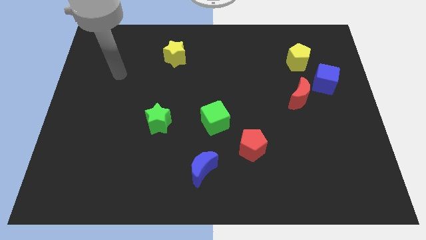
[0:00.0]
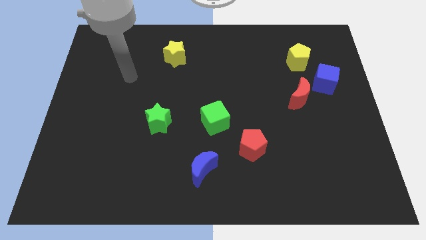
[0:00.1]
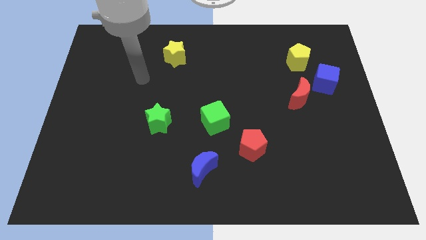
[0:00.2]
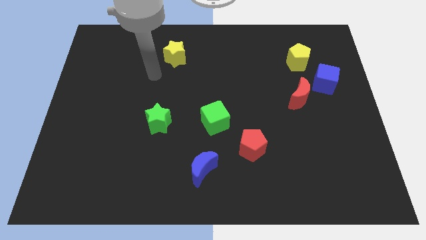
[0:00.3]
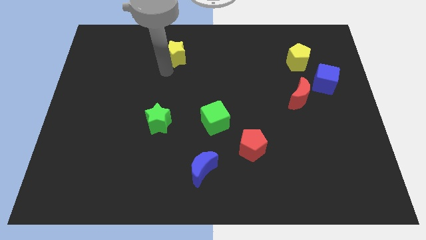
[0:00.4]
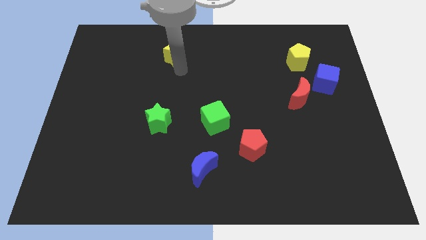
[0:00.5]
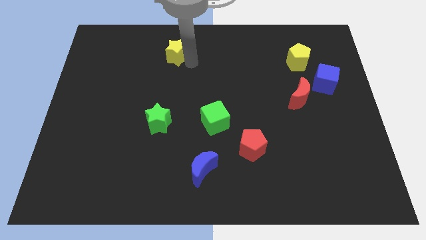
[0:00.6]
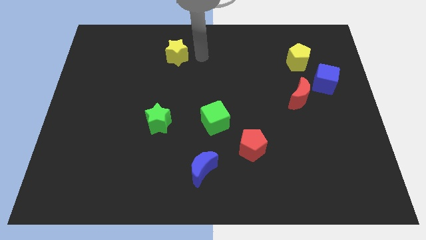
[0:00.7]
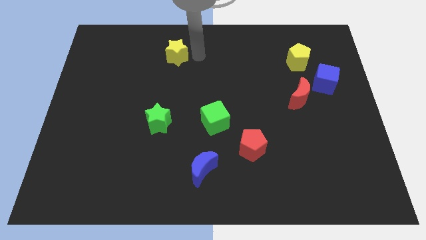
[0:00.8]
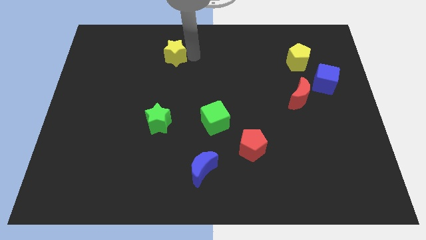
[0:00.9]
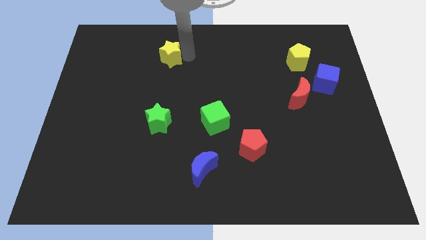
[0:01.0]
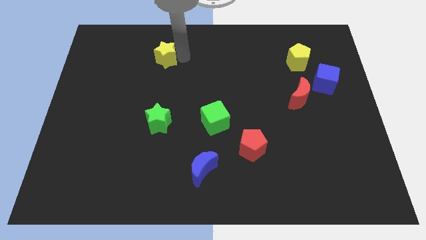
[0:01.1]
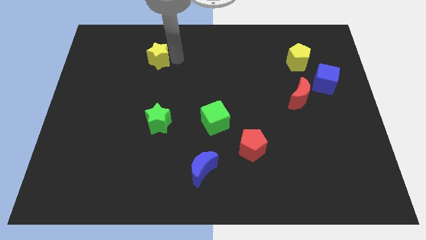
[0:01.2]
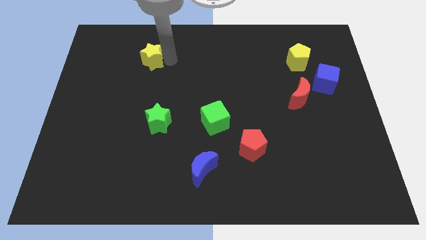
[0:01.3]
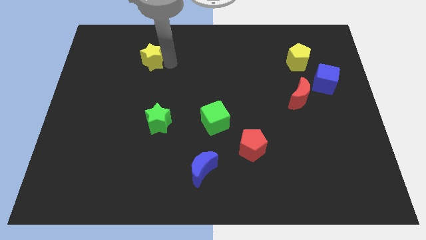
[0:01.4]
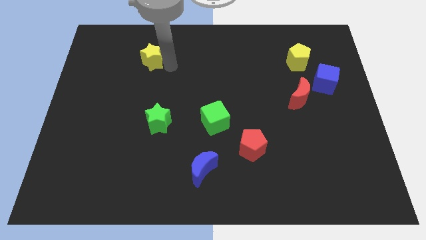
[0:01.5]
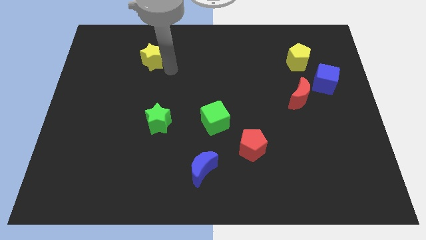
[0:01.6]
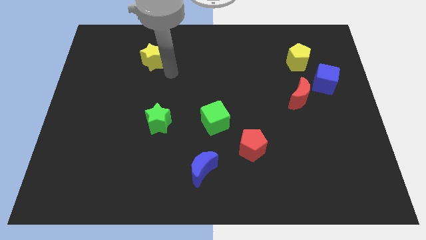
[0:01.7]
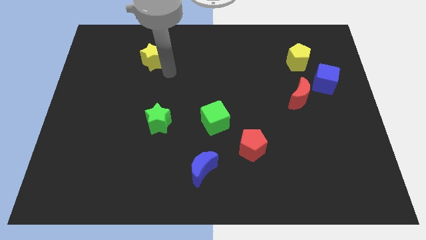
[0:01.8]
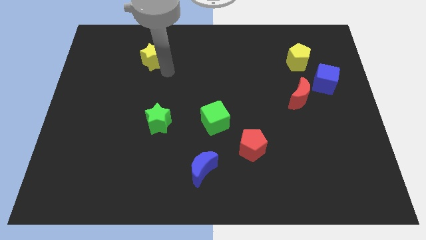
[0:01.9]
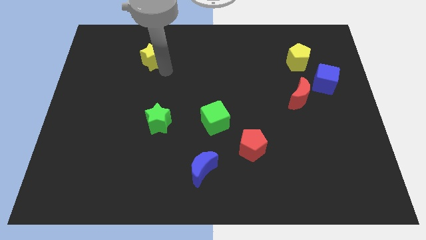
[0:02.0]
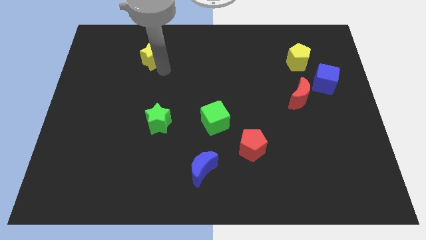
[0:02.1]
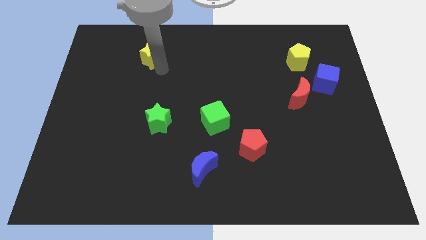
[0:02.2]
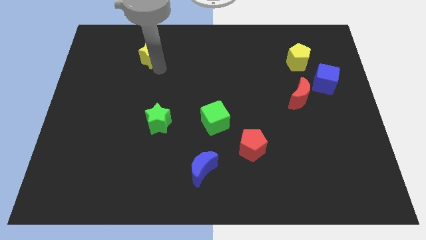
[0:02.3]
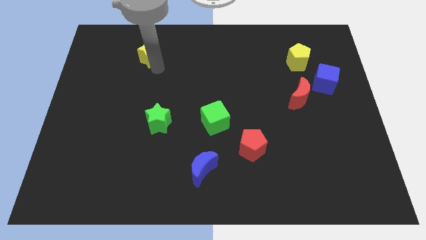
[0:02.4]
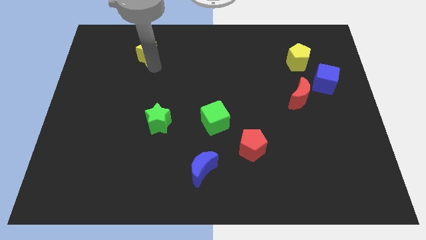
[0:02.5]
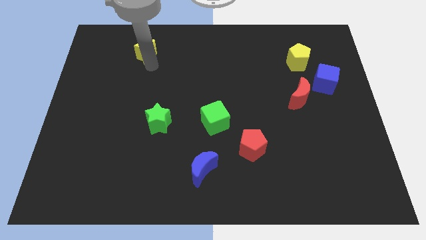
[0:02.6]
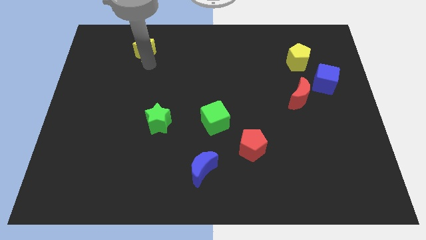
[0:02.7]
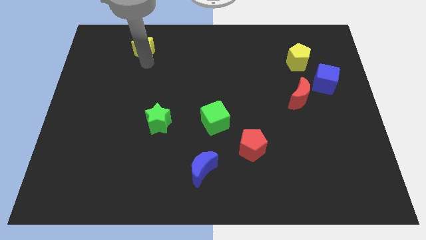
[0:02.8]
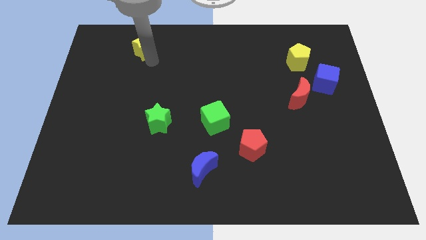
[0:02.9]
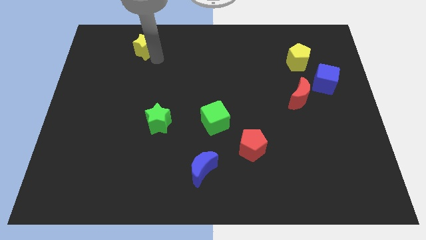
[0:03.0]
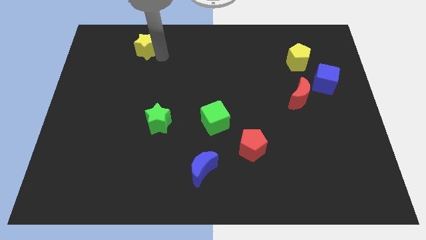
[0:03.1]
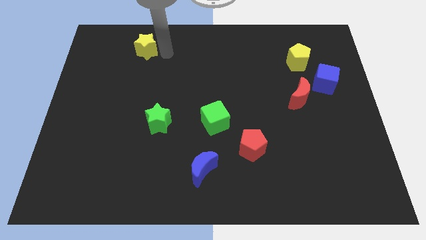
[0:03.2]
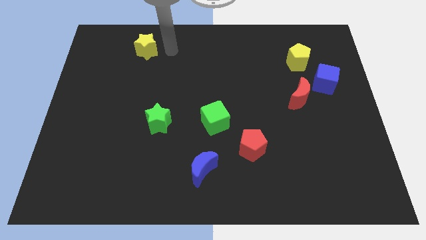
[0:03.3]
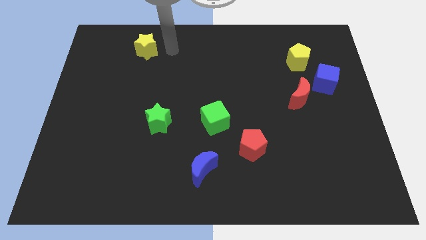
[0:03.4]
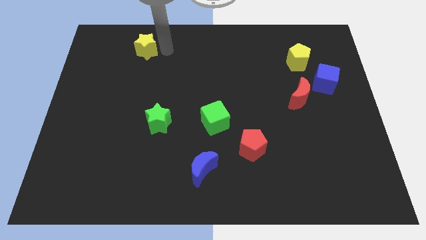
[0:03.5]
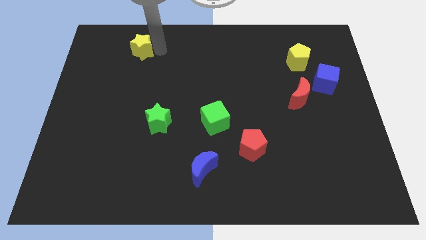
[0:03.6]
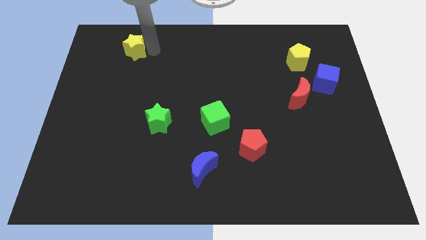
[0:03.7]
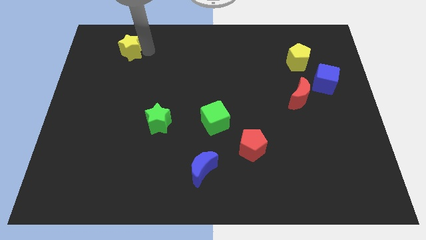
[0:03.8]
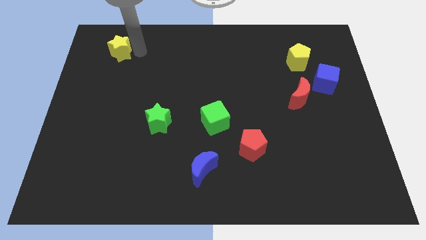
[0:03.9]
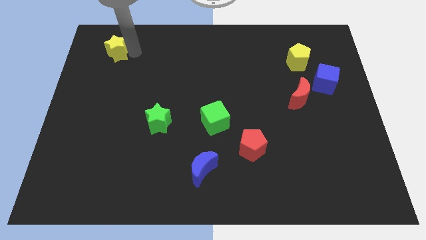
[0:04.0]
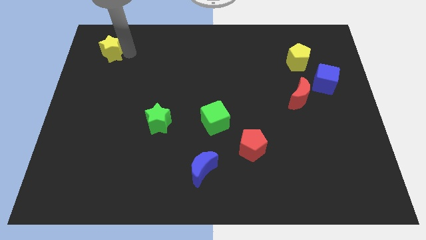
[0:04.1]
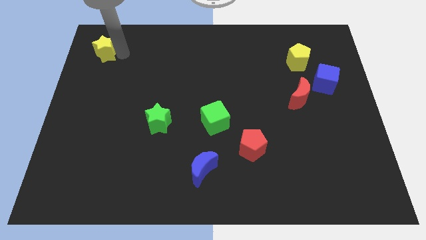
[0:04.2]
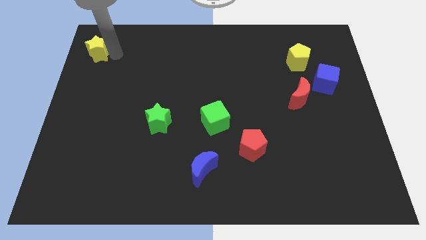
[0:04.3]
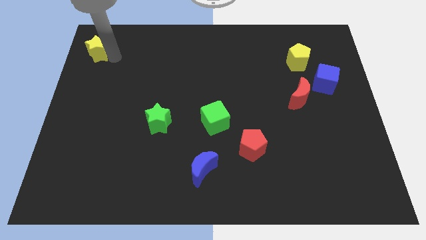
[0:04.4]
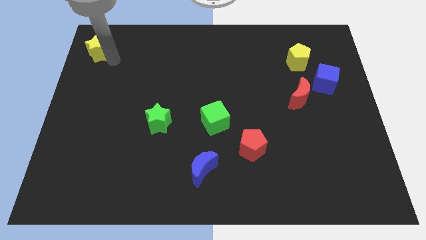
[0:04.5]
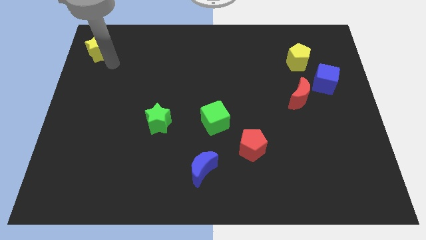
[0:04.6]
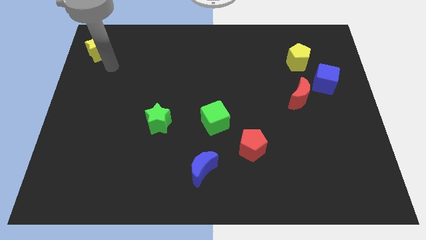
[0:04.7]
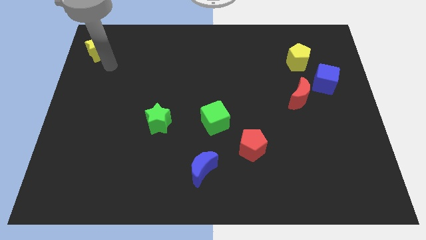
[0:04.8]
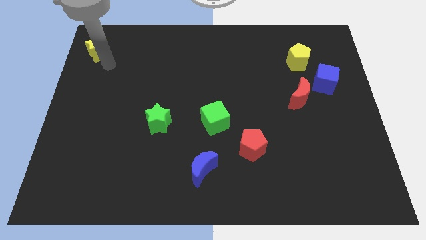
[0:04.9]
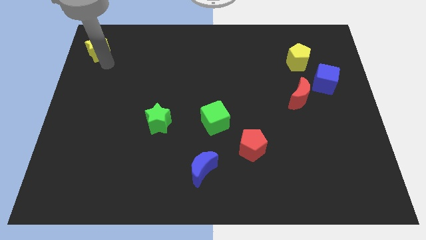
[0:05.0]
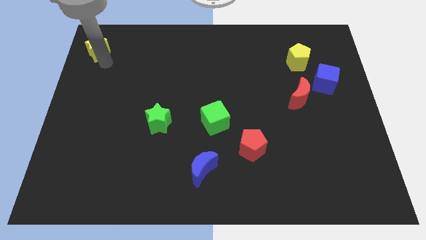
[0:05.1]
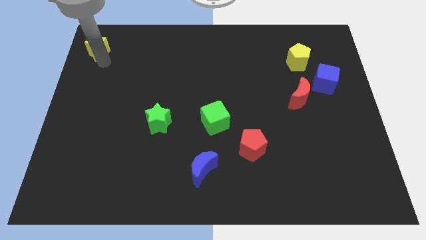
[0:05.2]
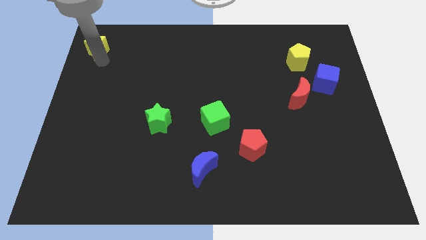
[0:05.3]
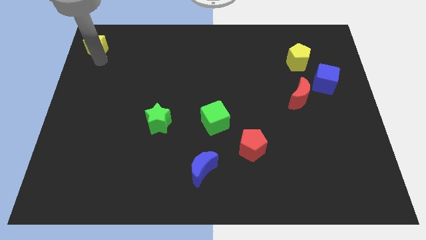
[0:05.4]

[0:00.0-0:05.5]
push the yellow star to the top left corner
